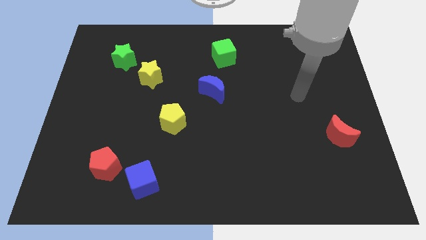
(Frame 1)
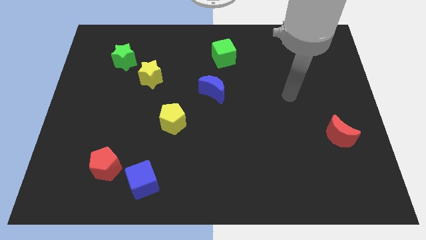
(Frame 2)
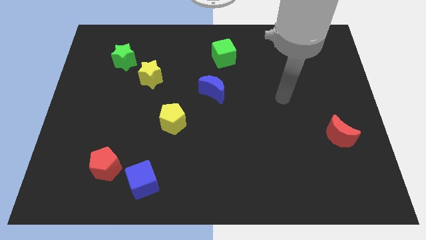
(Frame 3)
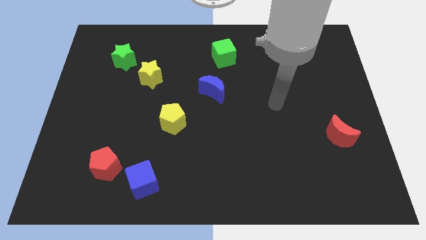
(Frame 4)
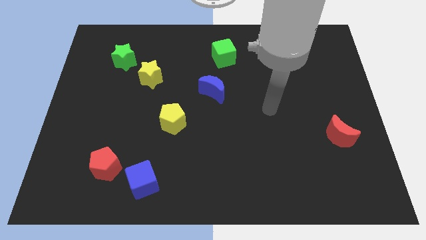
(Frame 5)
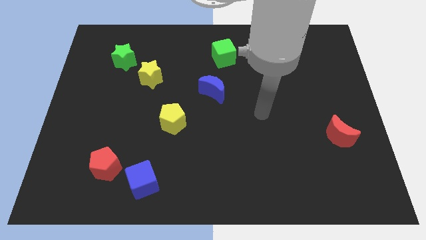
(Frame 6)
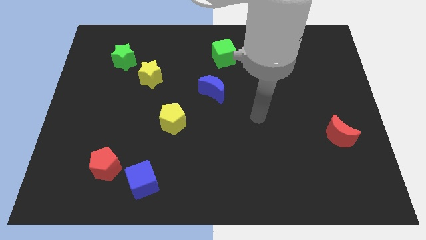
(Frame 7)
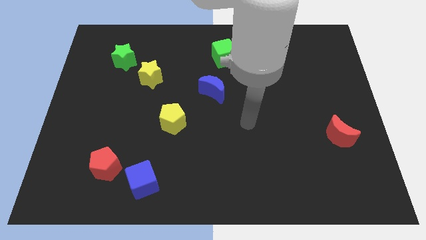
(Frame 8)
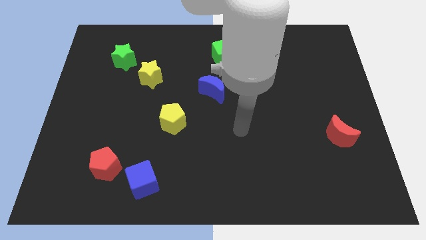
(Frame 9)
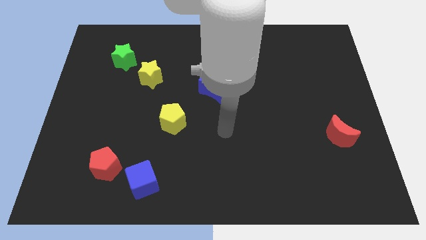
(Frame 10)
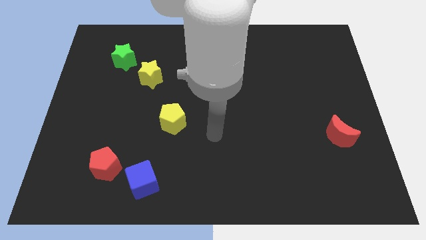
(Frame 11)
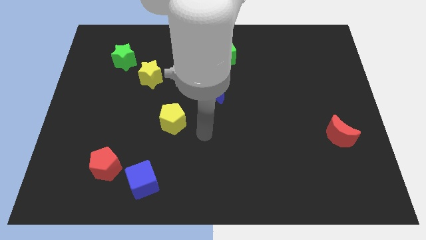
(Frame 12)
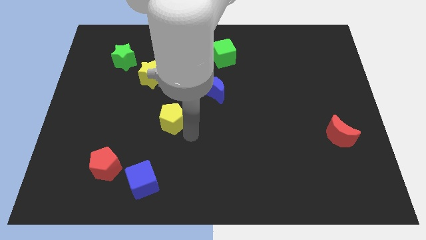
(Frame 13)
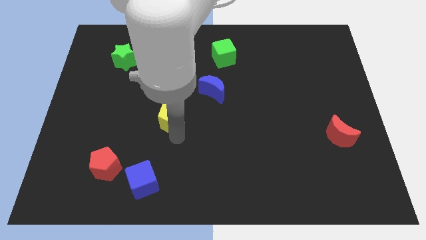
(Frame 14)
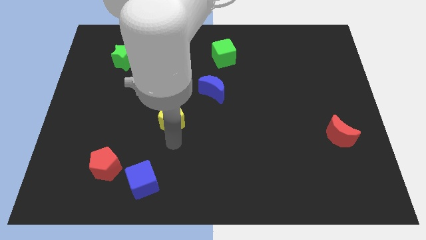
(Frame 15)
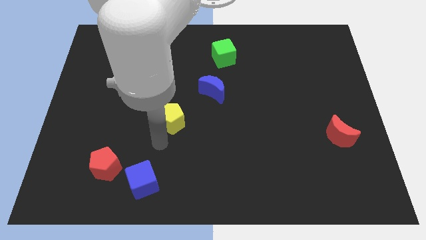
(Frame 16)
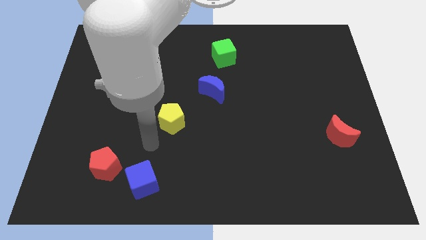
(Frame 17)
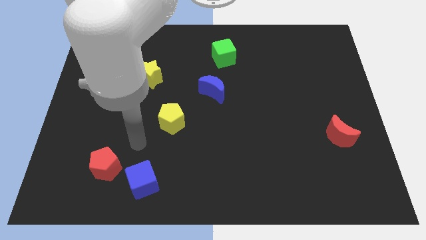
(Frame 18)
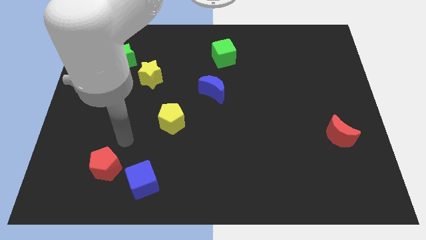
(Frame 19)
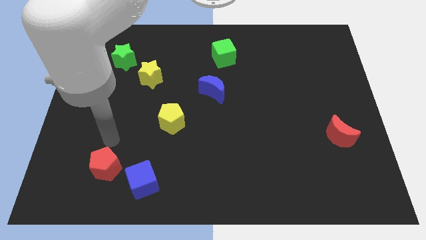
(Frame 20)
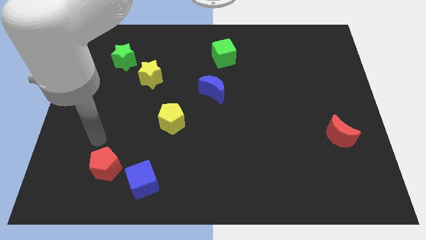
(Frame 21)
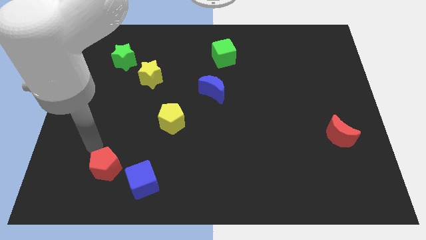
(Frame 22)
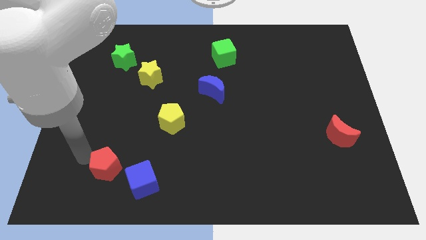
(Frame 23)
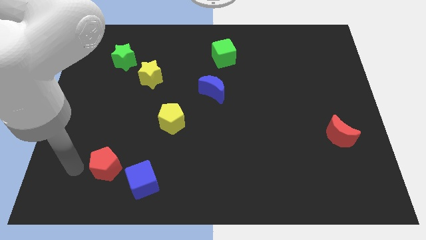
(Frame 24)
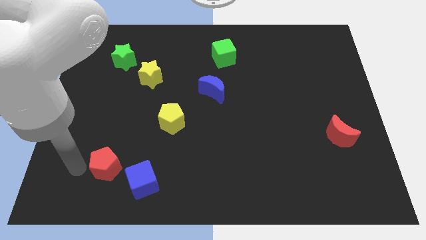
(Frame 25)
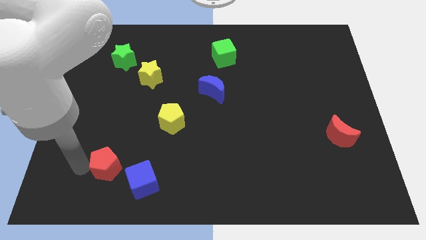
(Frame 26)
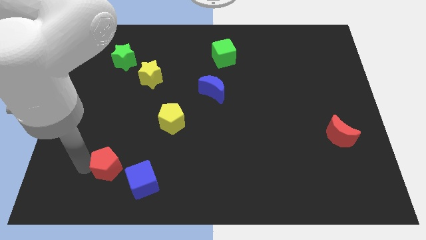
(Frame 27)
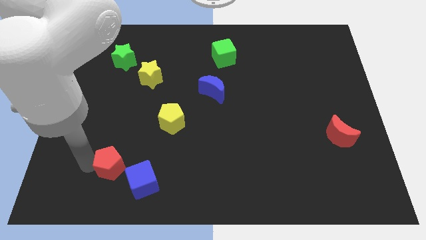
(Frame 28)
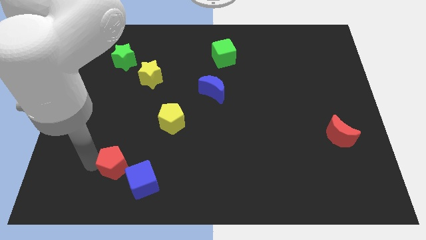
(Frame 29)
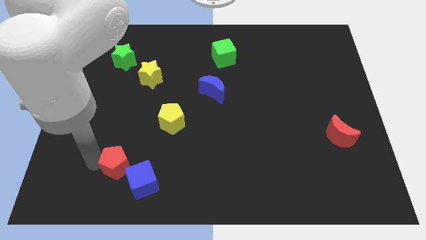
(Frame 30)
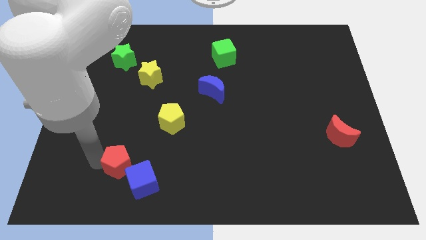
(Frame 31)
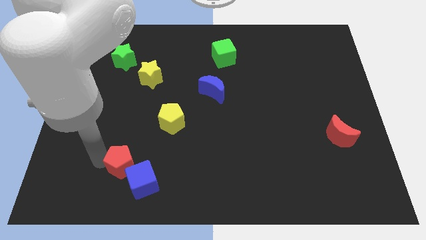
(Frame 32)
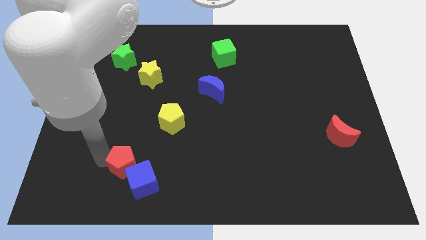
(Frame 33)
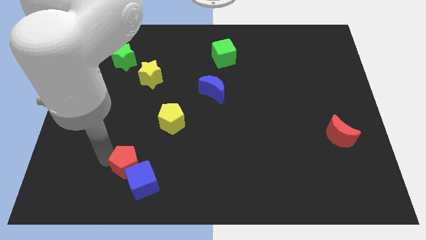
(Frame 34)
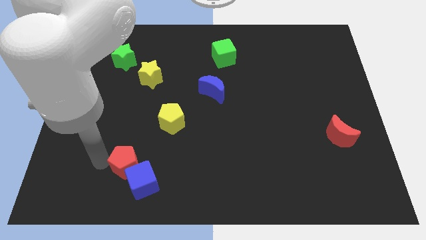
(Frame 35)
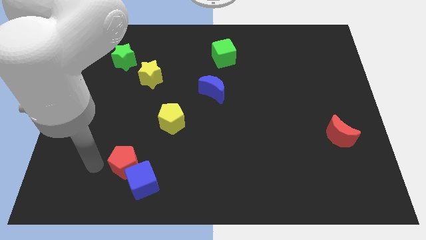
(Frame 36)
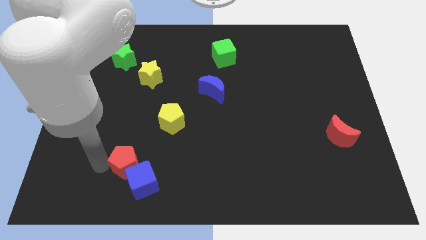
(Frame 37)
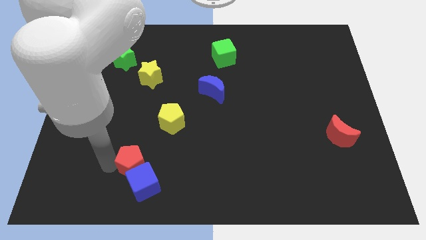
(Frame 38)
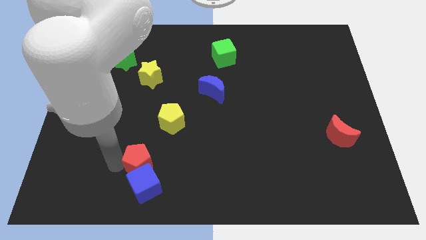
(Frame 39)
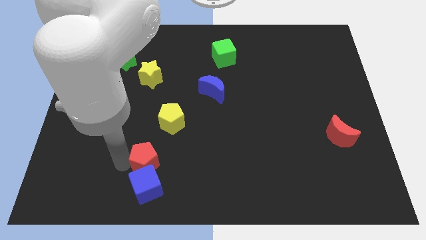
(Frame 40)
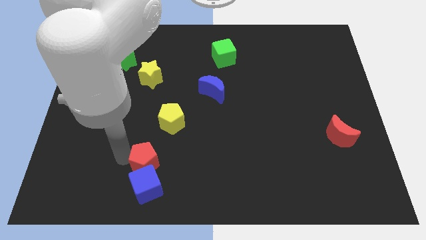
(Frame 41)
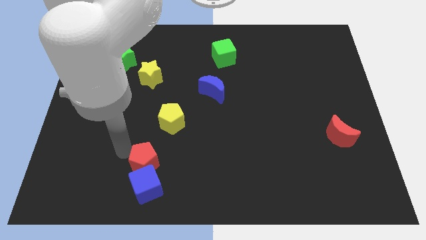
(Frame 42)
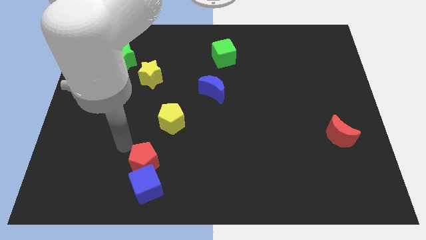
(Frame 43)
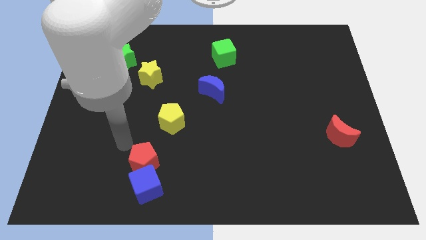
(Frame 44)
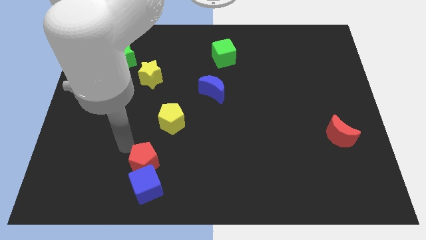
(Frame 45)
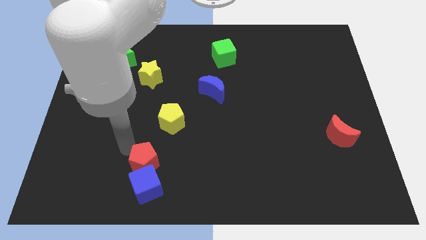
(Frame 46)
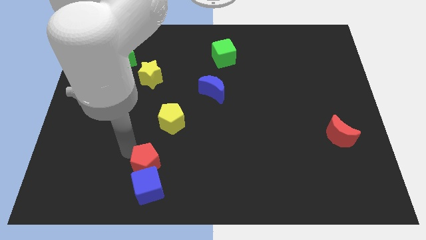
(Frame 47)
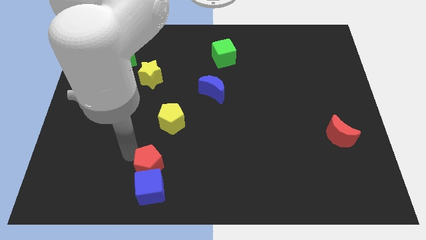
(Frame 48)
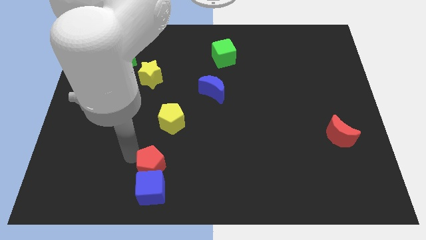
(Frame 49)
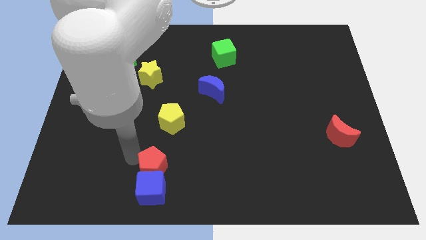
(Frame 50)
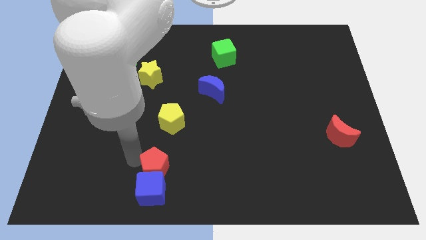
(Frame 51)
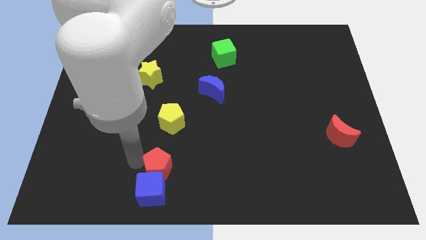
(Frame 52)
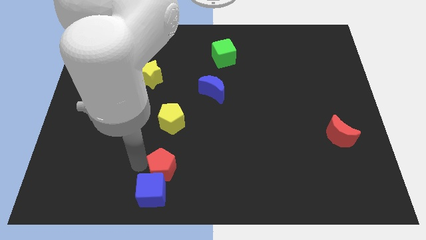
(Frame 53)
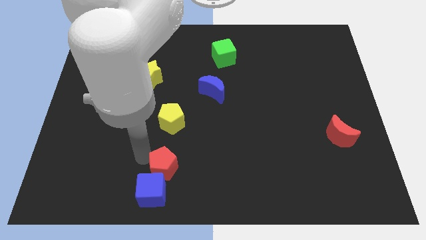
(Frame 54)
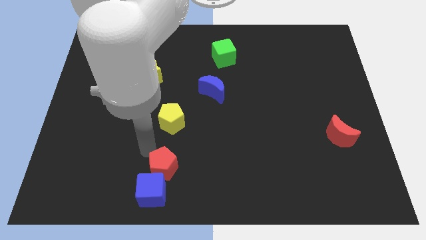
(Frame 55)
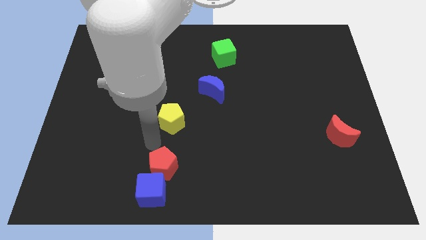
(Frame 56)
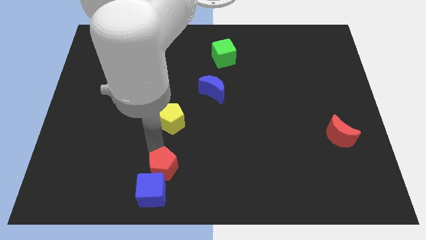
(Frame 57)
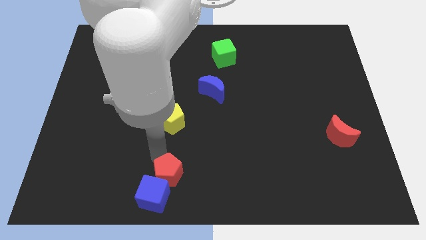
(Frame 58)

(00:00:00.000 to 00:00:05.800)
put the red pentagon to the bottom
